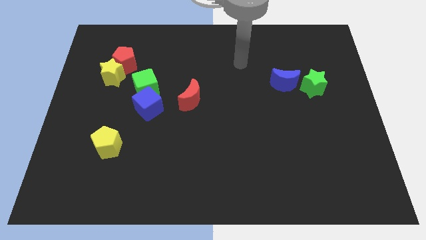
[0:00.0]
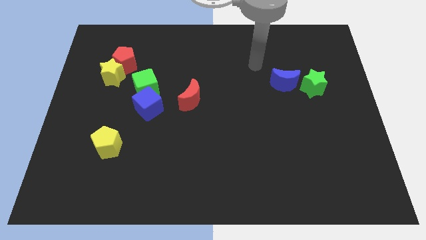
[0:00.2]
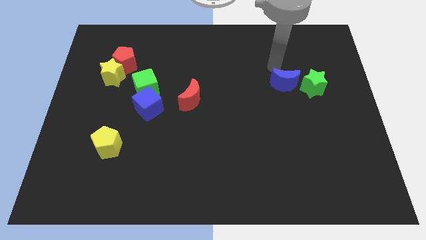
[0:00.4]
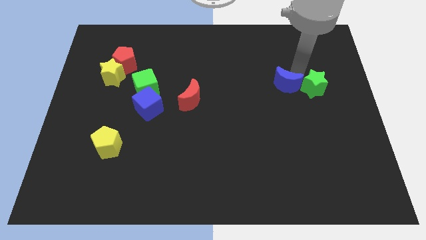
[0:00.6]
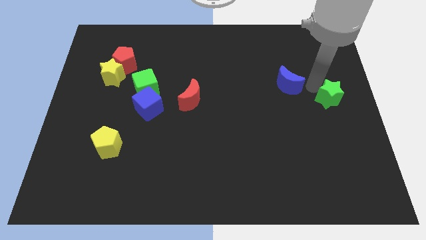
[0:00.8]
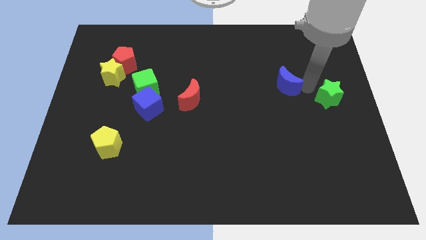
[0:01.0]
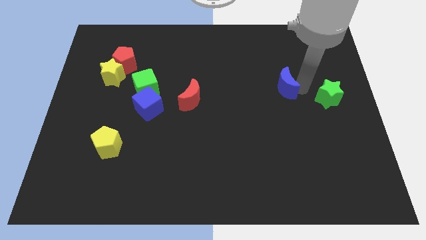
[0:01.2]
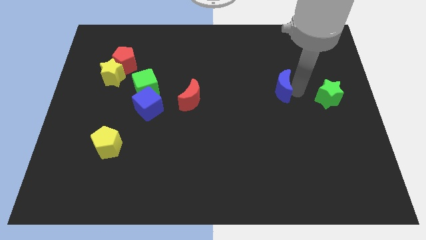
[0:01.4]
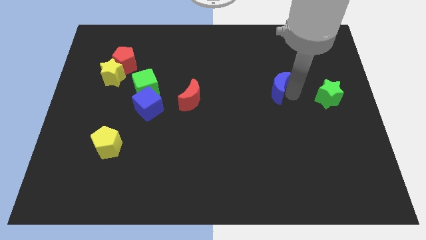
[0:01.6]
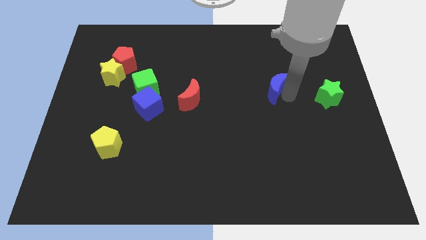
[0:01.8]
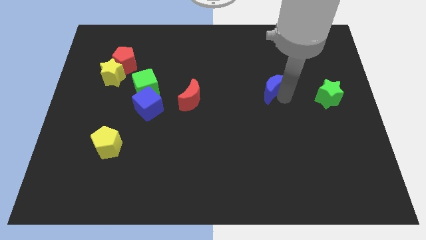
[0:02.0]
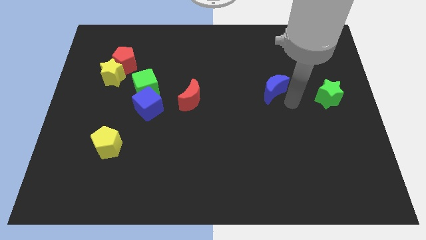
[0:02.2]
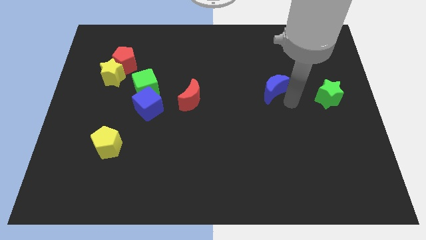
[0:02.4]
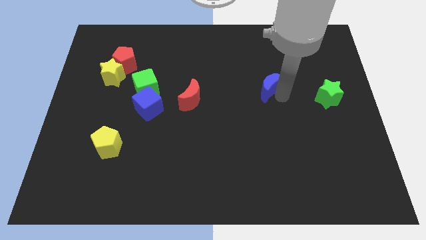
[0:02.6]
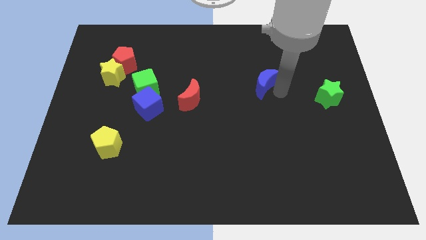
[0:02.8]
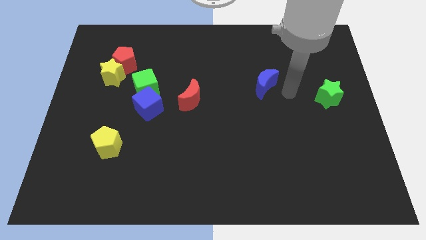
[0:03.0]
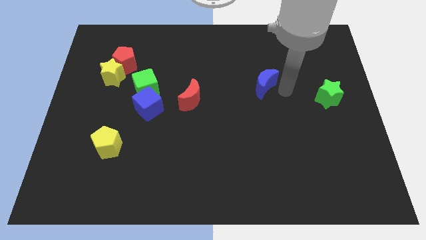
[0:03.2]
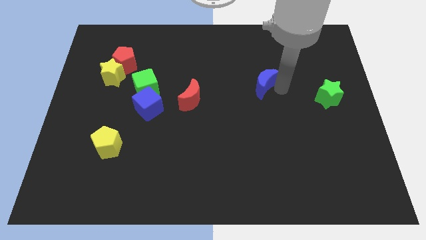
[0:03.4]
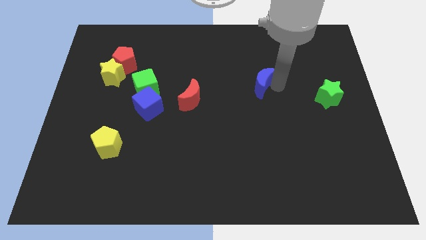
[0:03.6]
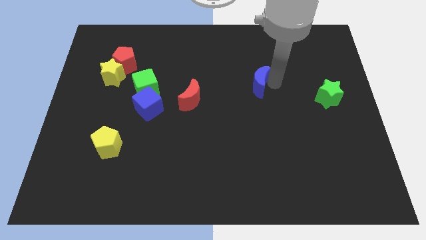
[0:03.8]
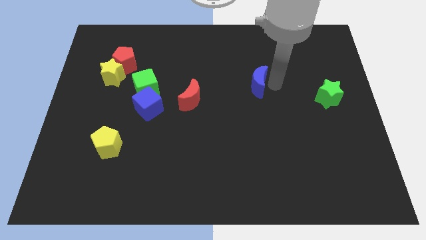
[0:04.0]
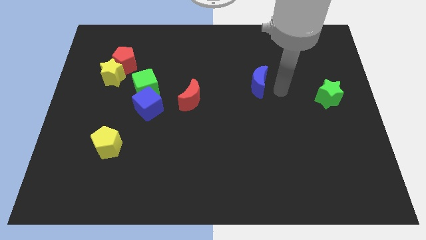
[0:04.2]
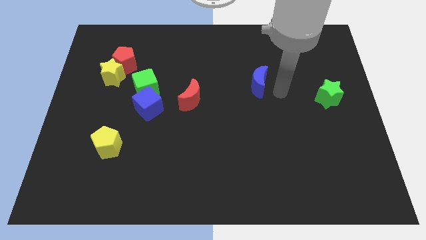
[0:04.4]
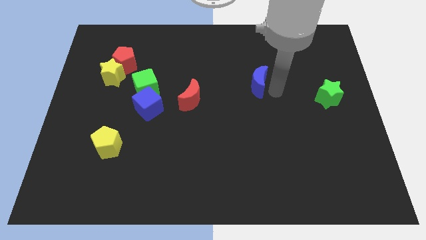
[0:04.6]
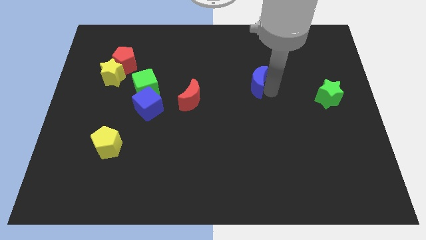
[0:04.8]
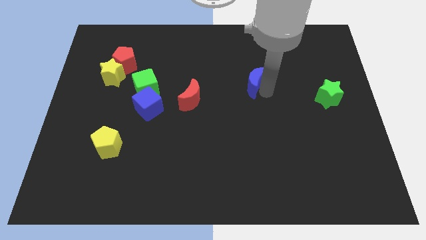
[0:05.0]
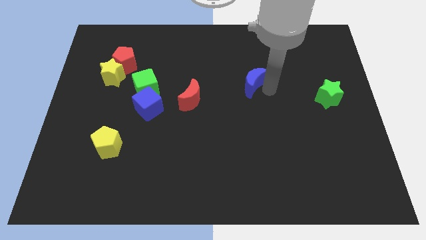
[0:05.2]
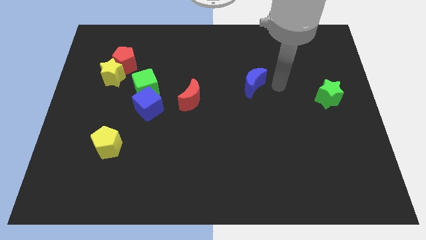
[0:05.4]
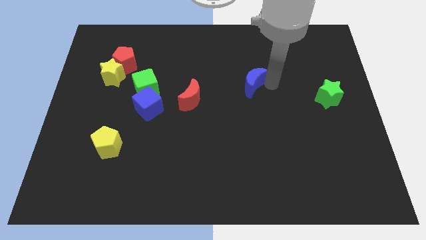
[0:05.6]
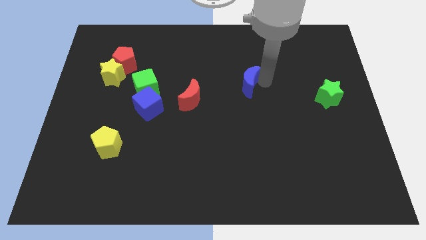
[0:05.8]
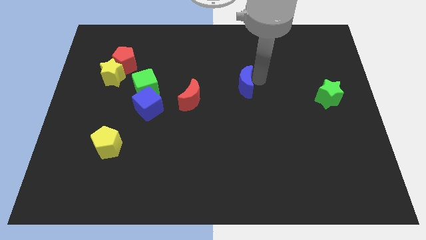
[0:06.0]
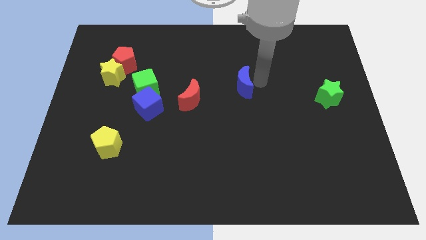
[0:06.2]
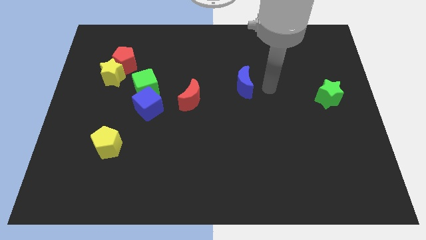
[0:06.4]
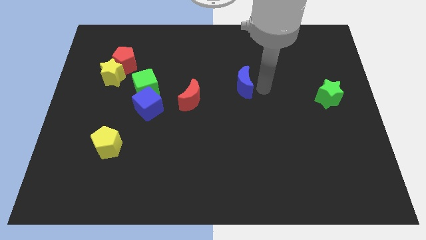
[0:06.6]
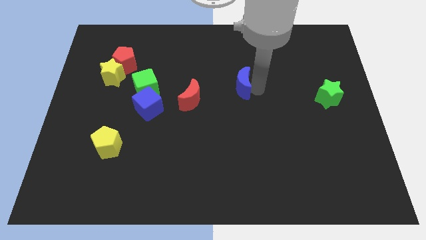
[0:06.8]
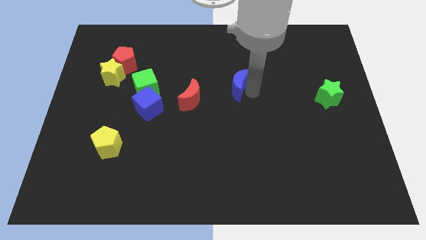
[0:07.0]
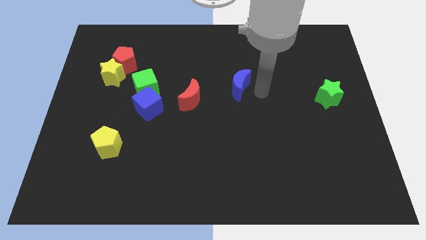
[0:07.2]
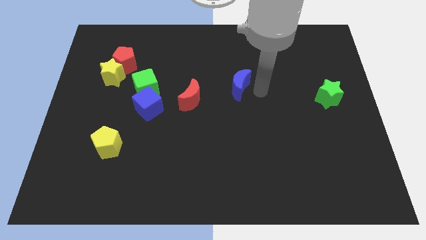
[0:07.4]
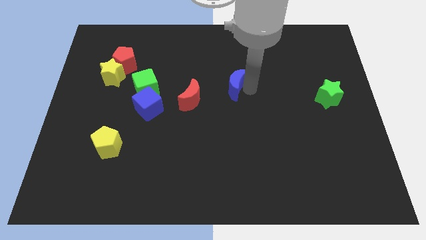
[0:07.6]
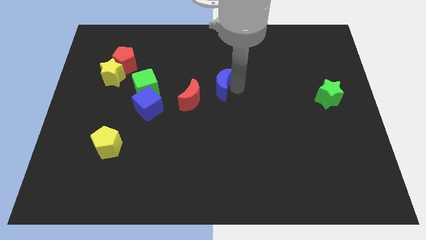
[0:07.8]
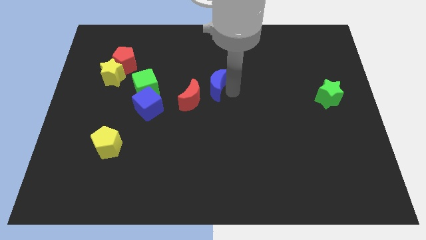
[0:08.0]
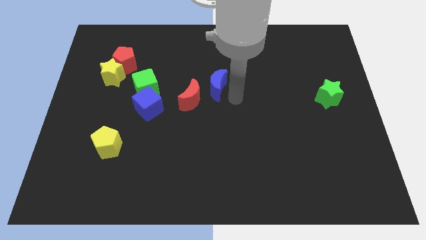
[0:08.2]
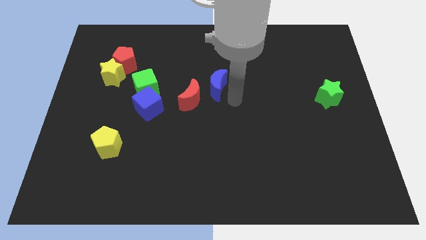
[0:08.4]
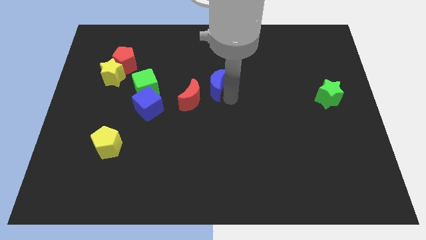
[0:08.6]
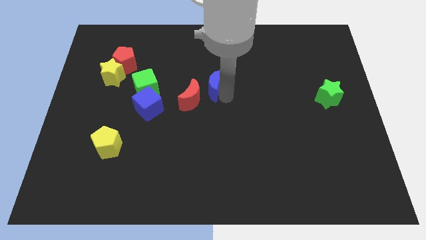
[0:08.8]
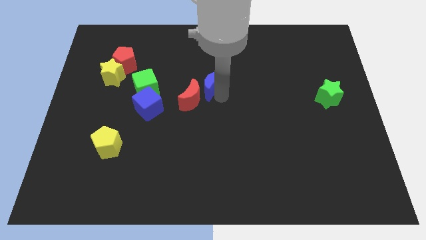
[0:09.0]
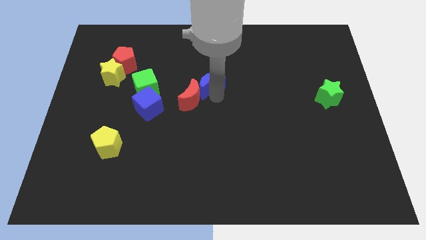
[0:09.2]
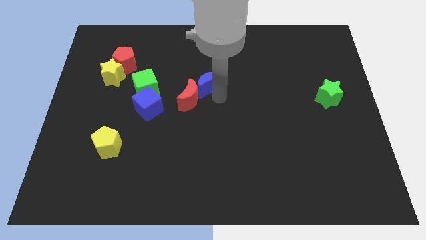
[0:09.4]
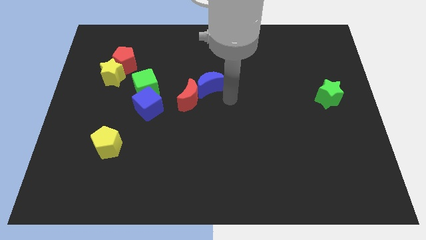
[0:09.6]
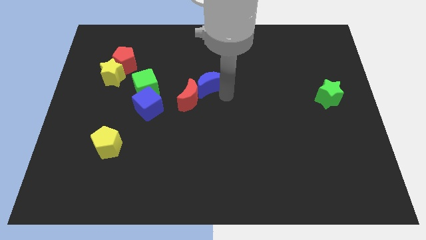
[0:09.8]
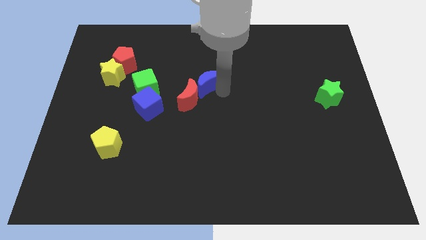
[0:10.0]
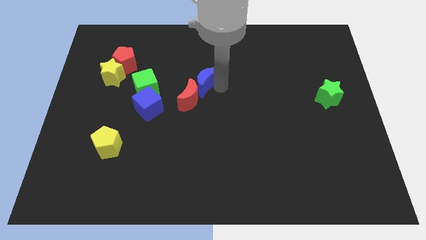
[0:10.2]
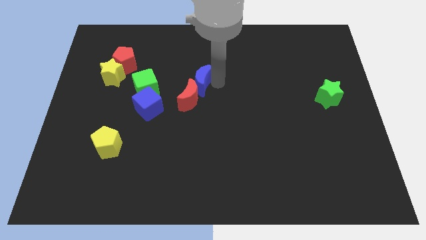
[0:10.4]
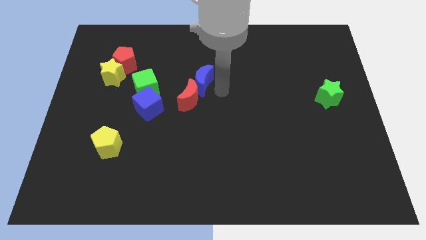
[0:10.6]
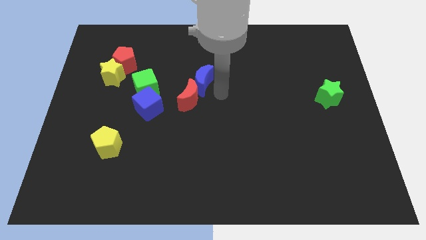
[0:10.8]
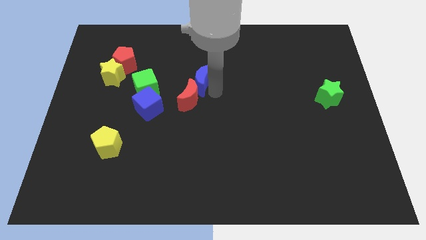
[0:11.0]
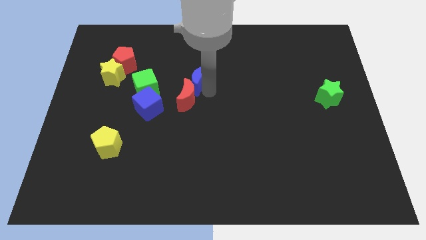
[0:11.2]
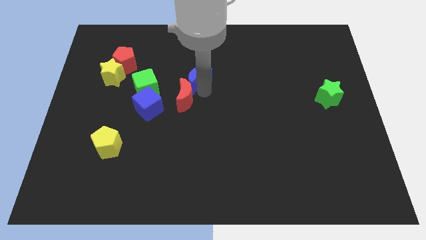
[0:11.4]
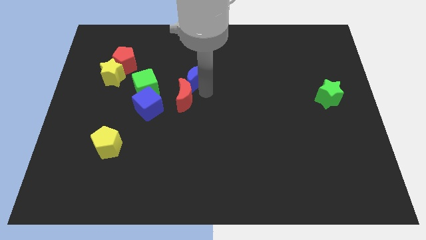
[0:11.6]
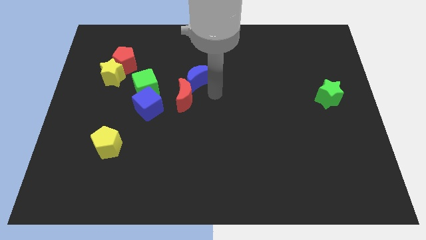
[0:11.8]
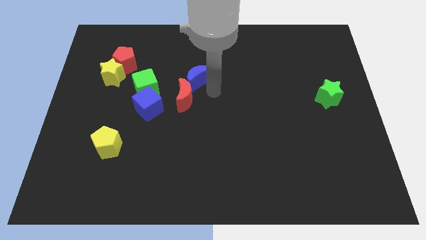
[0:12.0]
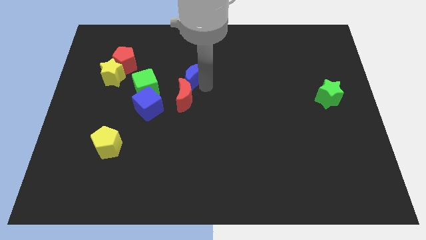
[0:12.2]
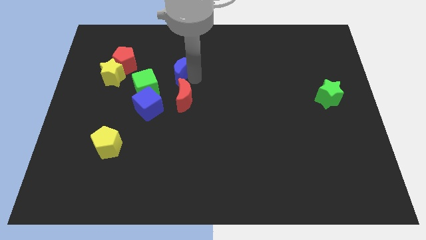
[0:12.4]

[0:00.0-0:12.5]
put the blue moon to the right of the red pentagon
